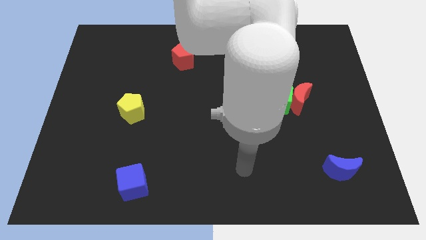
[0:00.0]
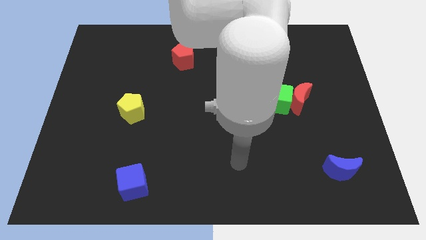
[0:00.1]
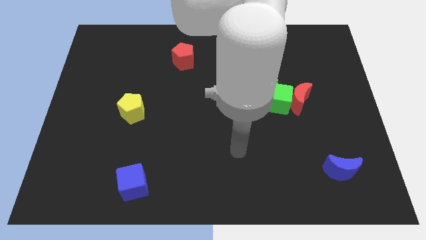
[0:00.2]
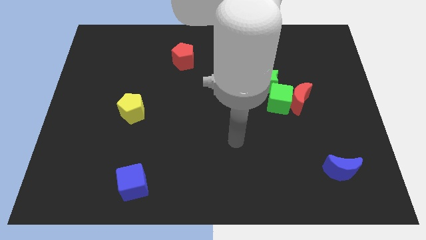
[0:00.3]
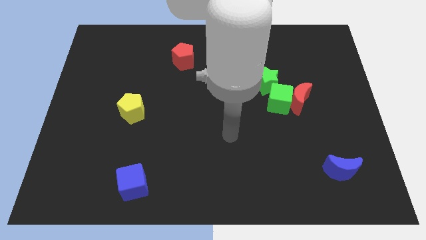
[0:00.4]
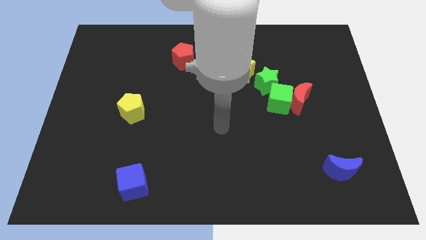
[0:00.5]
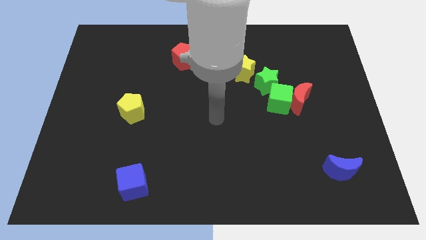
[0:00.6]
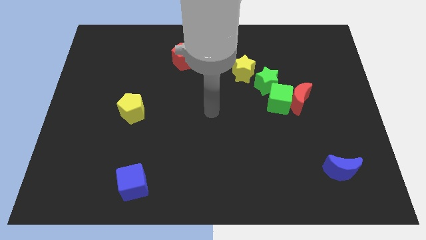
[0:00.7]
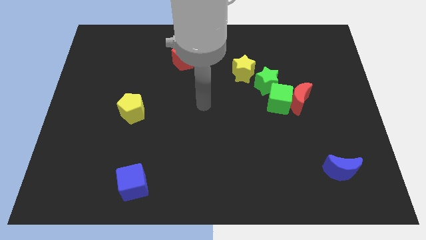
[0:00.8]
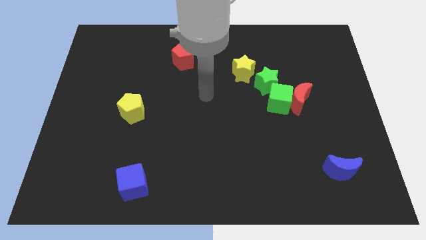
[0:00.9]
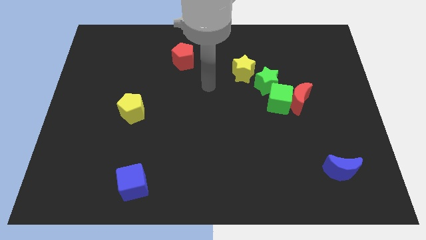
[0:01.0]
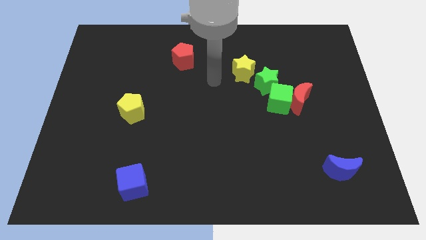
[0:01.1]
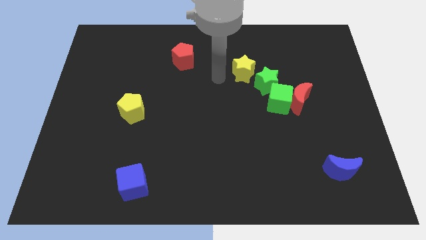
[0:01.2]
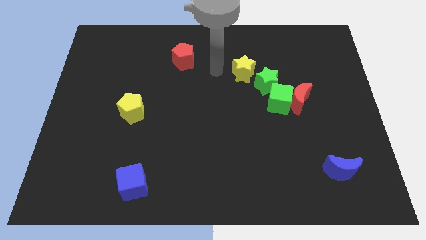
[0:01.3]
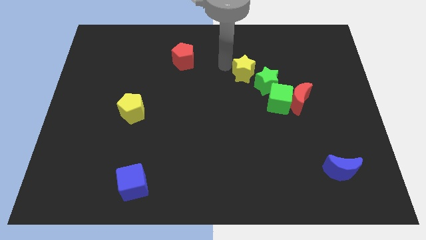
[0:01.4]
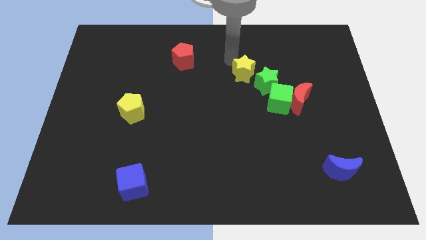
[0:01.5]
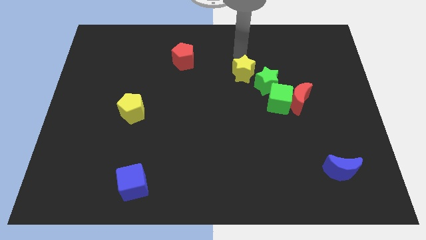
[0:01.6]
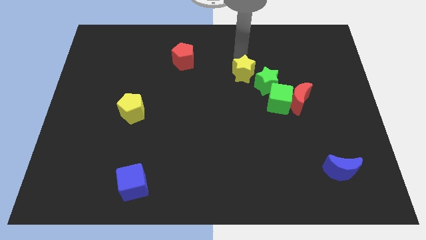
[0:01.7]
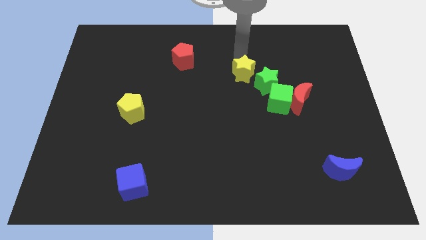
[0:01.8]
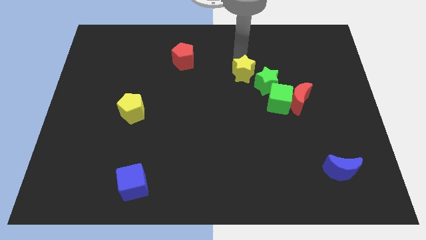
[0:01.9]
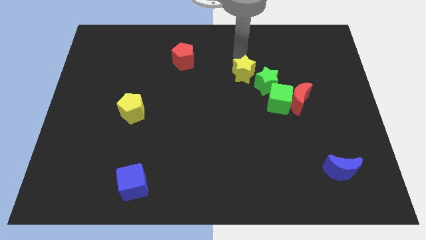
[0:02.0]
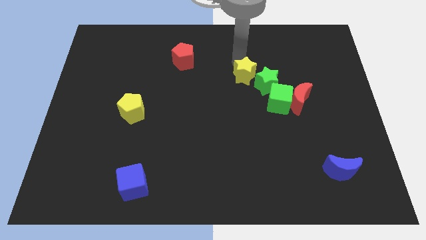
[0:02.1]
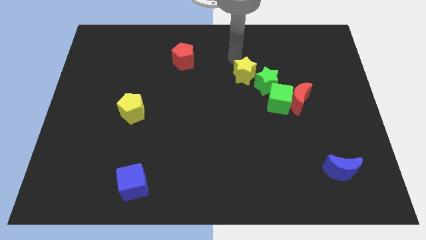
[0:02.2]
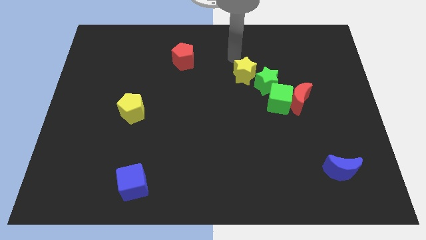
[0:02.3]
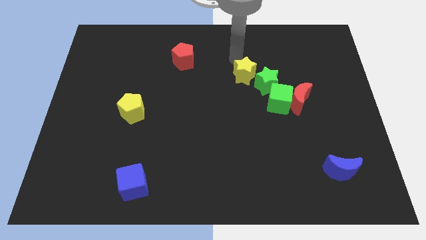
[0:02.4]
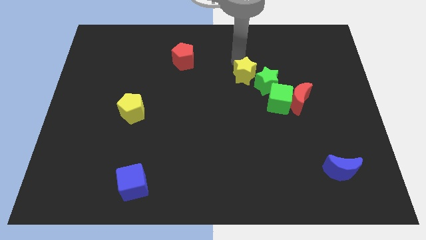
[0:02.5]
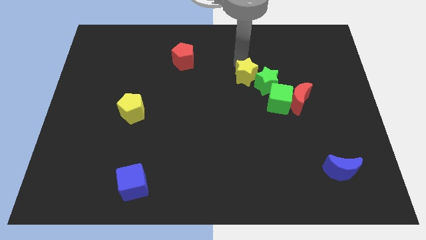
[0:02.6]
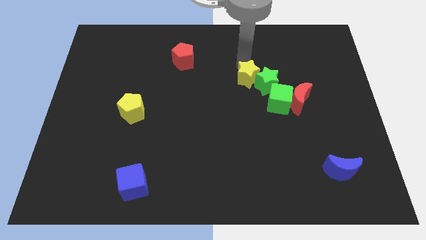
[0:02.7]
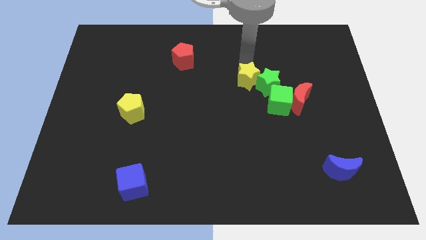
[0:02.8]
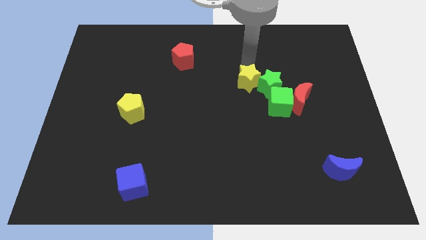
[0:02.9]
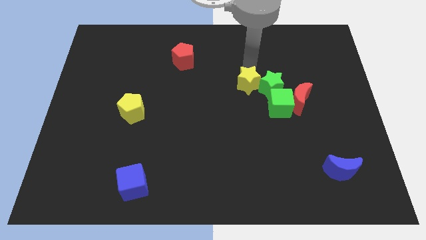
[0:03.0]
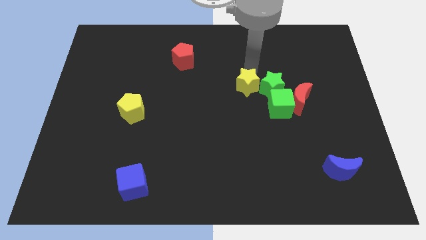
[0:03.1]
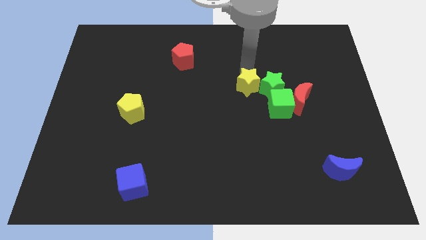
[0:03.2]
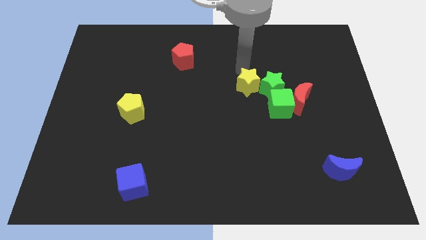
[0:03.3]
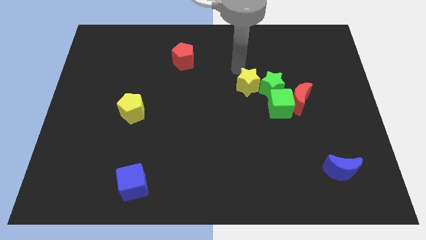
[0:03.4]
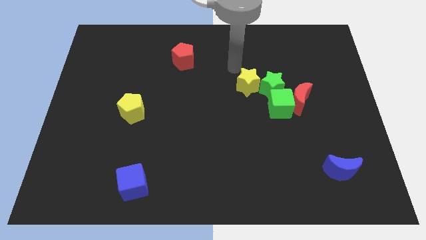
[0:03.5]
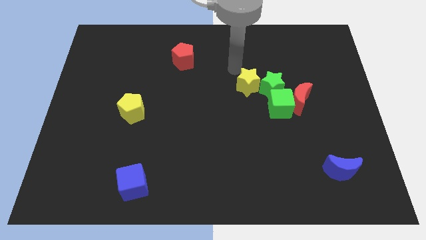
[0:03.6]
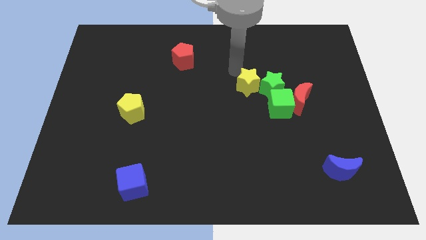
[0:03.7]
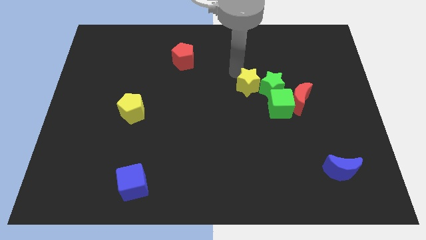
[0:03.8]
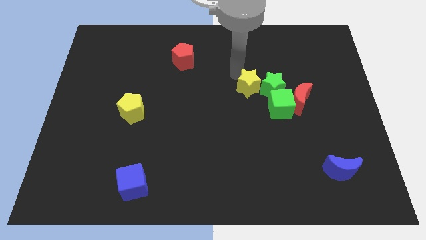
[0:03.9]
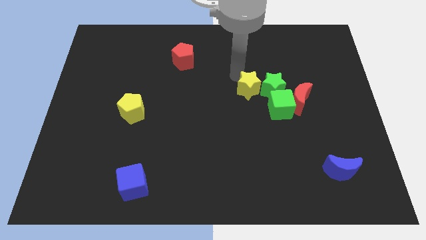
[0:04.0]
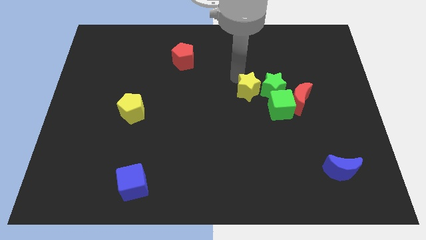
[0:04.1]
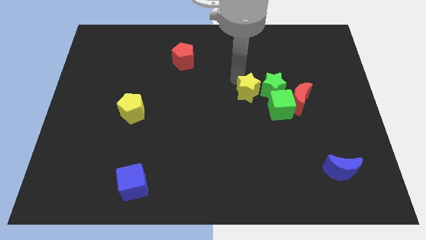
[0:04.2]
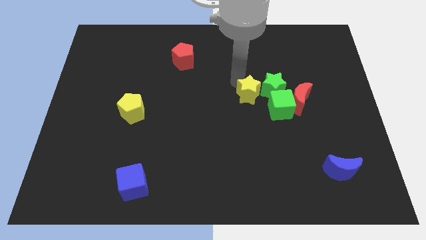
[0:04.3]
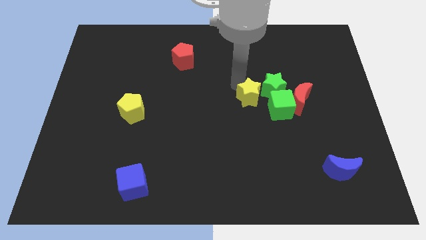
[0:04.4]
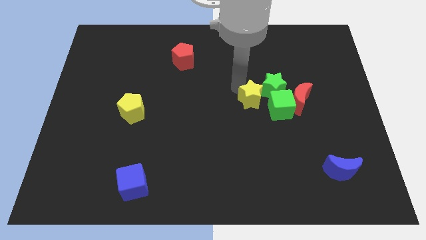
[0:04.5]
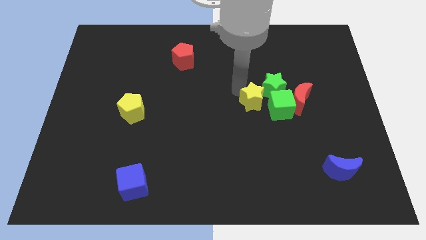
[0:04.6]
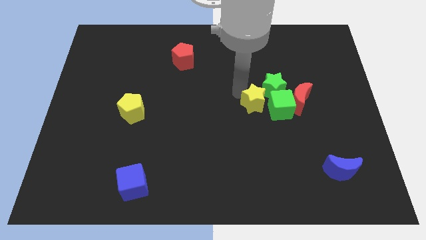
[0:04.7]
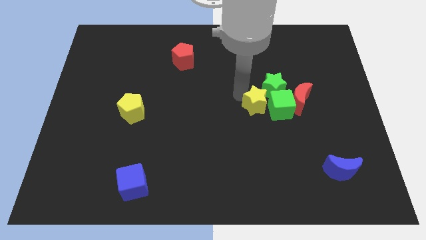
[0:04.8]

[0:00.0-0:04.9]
put the yellow star to the green cube

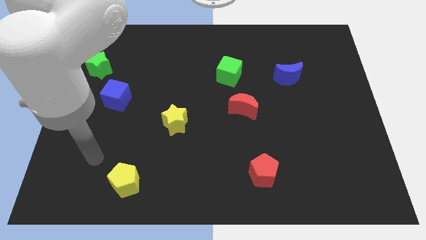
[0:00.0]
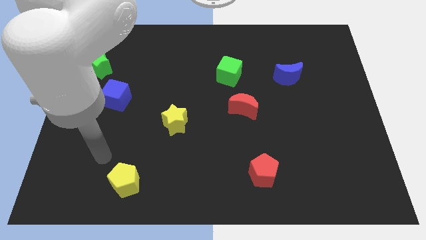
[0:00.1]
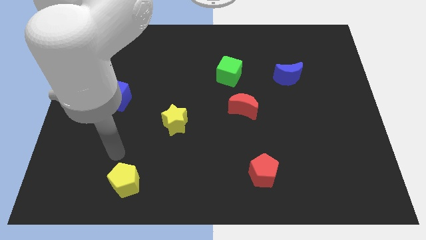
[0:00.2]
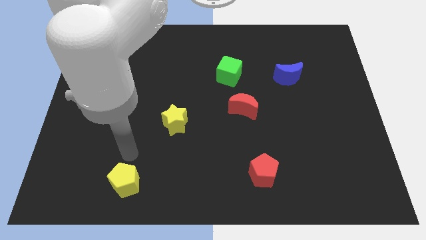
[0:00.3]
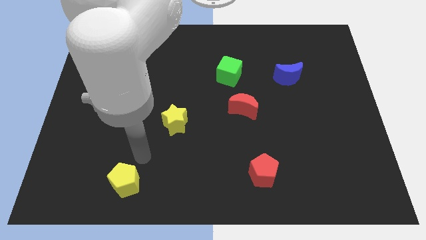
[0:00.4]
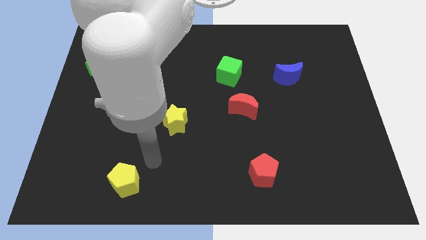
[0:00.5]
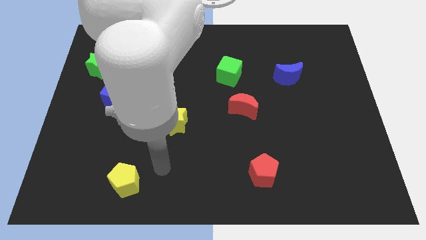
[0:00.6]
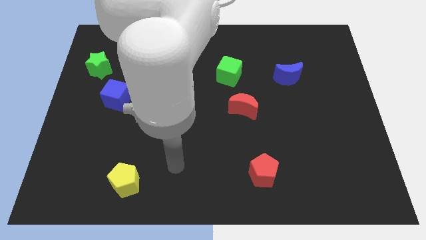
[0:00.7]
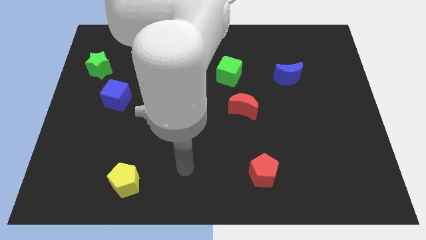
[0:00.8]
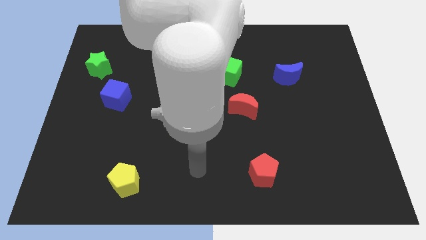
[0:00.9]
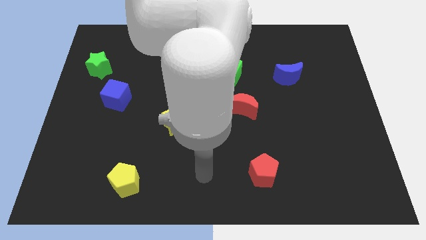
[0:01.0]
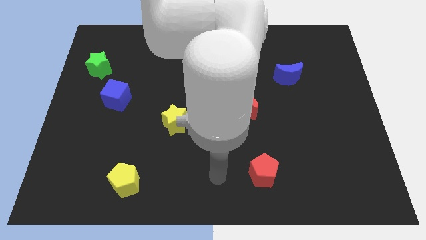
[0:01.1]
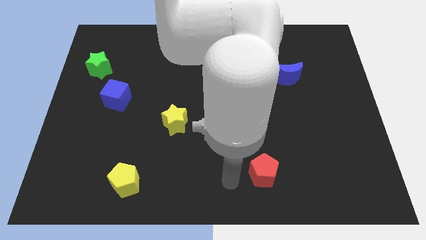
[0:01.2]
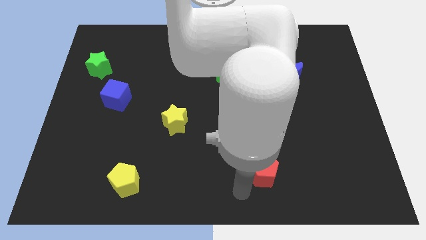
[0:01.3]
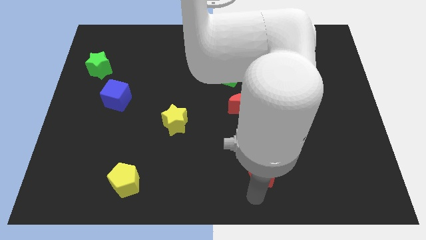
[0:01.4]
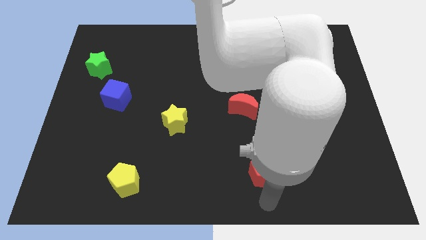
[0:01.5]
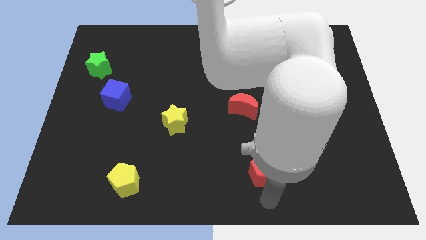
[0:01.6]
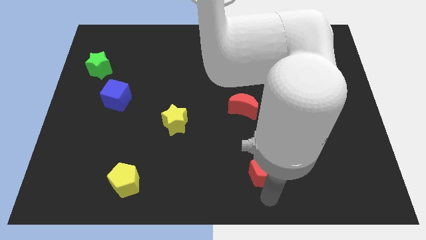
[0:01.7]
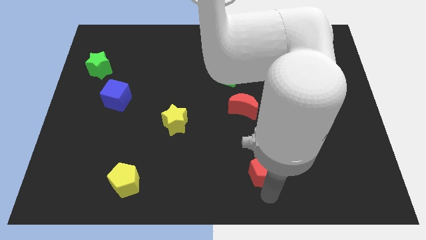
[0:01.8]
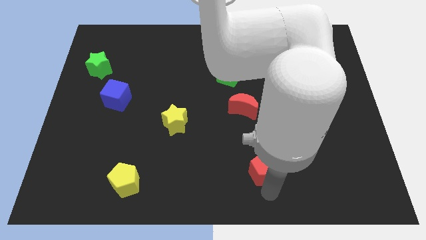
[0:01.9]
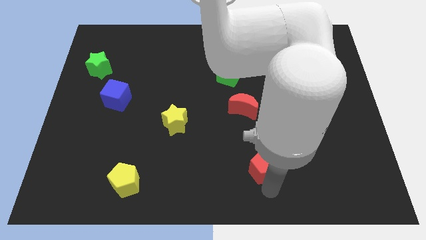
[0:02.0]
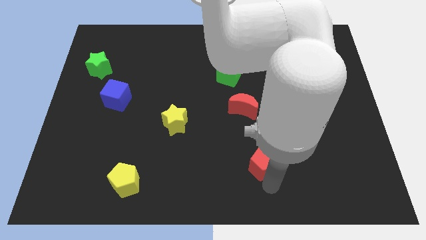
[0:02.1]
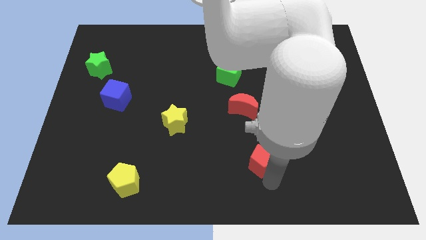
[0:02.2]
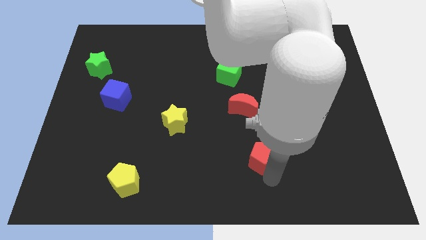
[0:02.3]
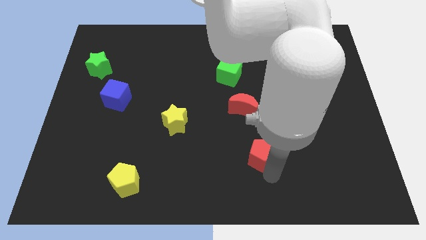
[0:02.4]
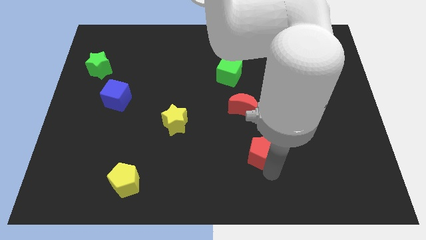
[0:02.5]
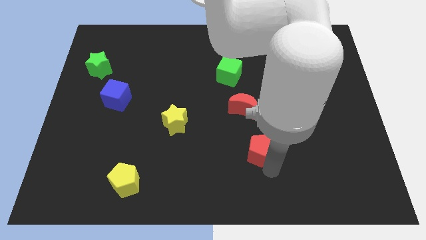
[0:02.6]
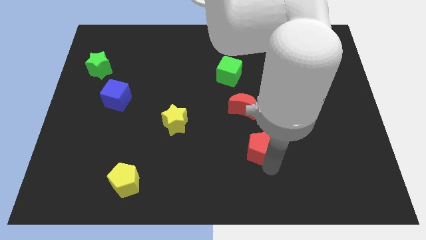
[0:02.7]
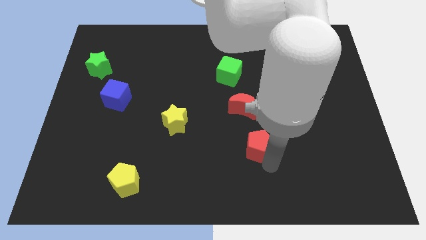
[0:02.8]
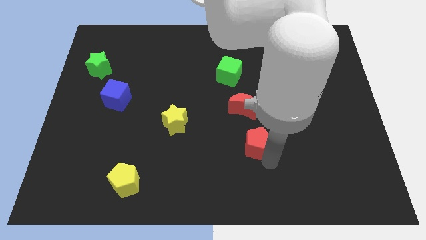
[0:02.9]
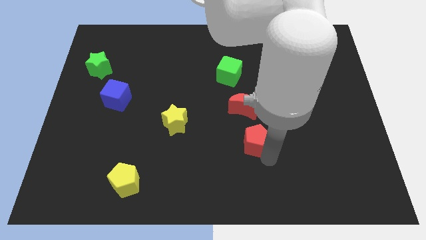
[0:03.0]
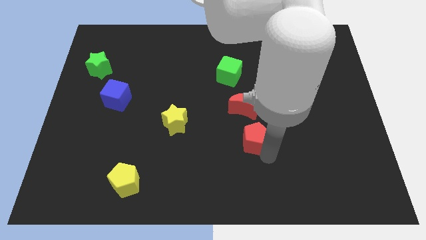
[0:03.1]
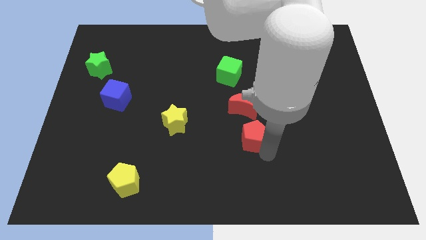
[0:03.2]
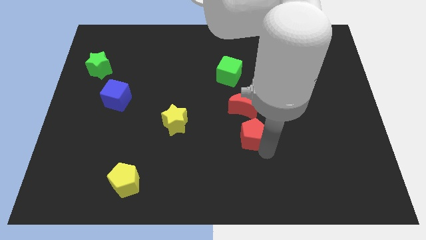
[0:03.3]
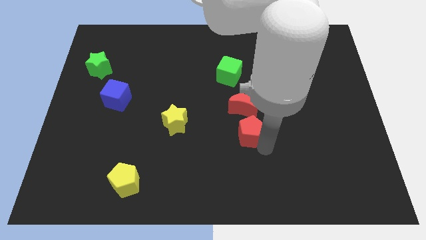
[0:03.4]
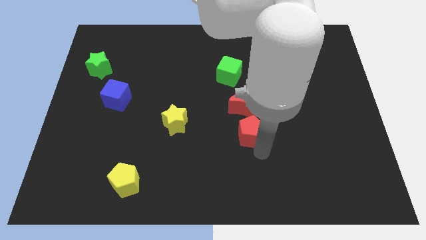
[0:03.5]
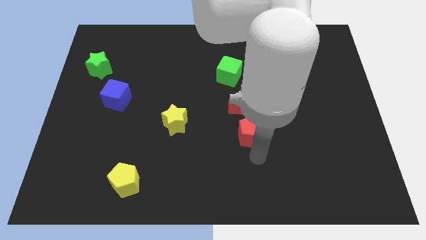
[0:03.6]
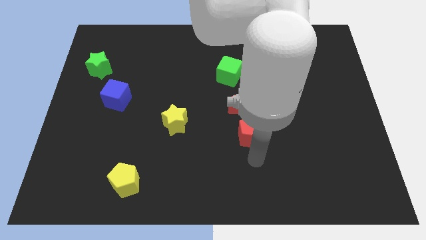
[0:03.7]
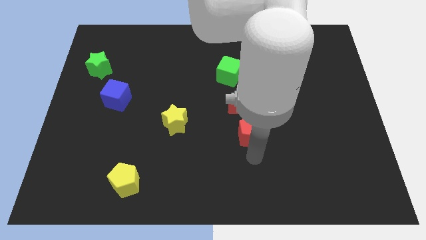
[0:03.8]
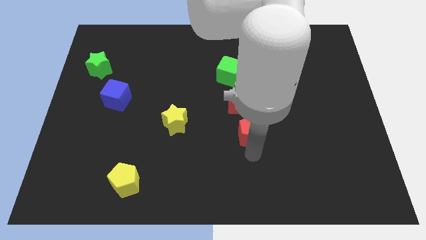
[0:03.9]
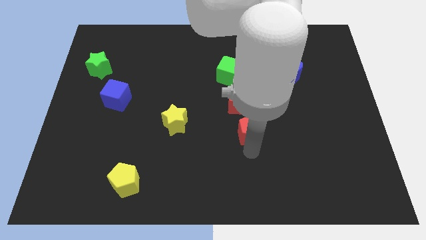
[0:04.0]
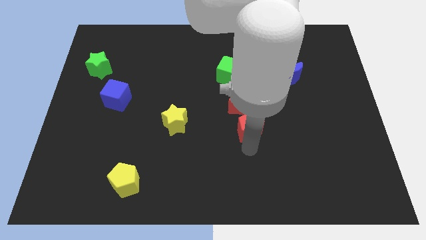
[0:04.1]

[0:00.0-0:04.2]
put the red pentagon close to the red moon
